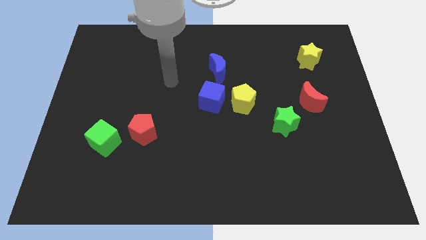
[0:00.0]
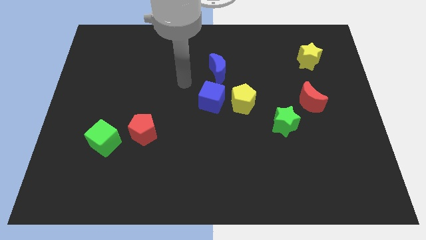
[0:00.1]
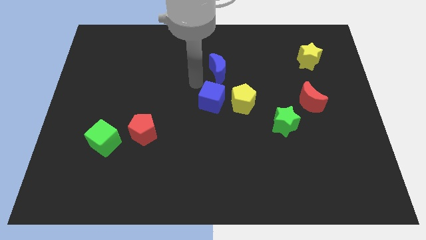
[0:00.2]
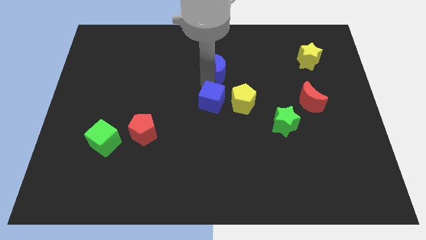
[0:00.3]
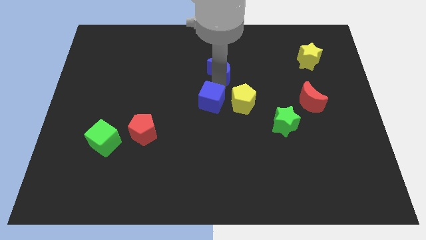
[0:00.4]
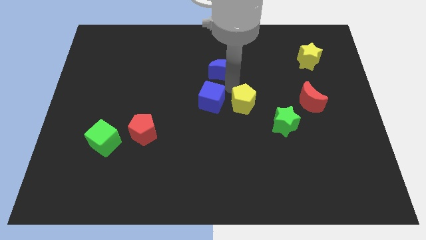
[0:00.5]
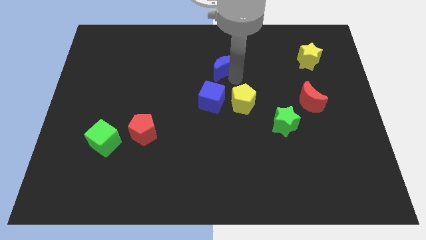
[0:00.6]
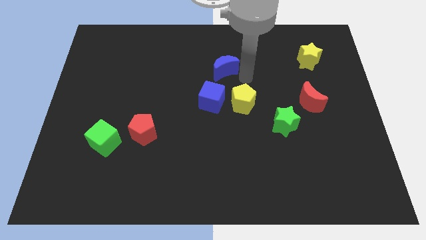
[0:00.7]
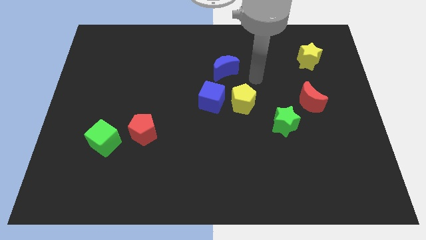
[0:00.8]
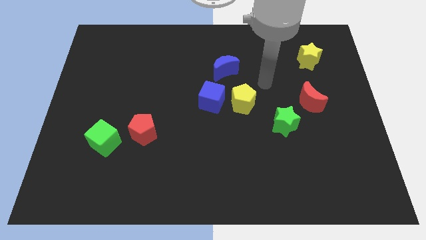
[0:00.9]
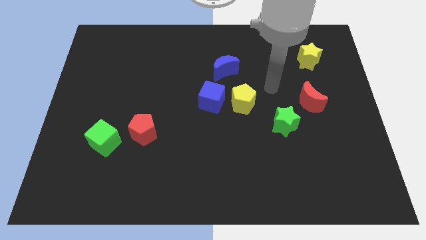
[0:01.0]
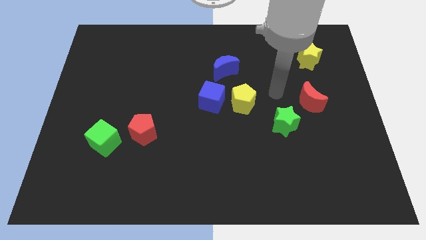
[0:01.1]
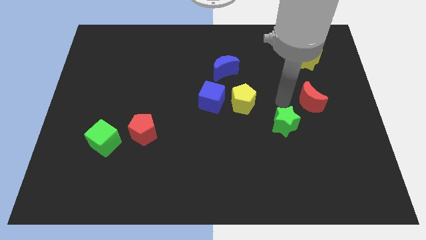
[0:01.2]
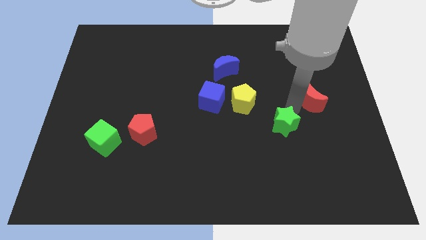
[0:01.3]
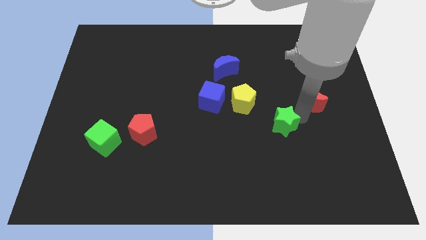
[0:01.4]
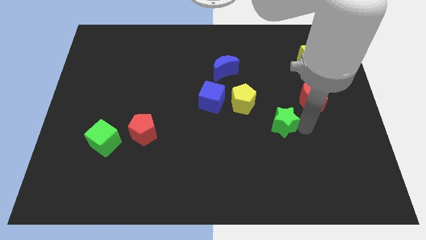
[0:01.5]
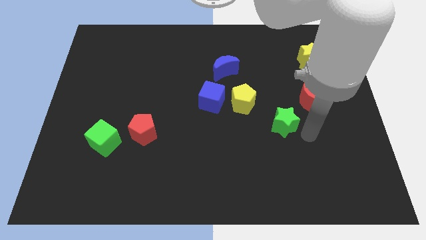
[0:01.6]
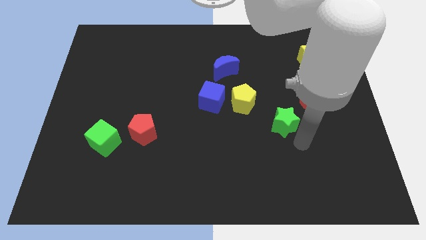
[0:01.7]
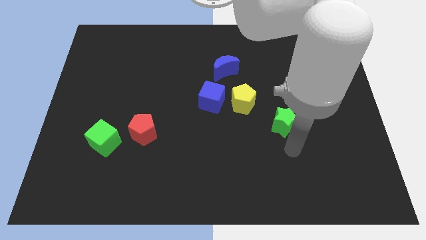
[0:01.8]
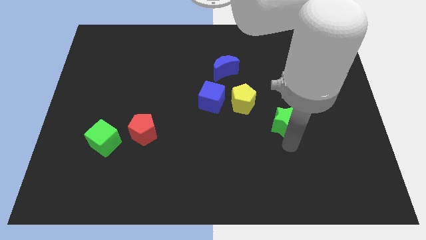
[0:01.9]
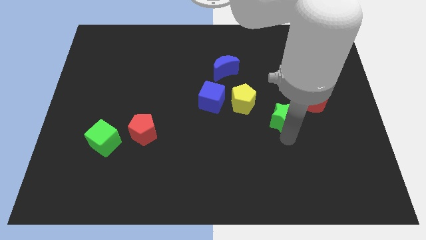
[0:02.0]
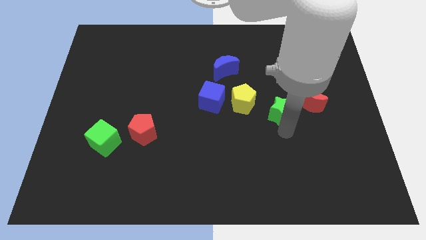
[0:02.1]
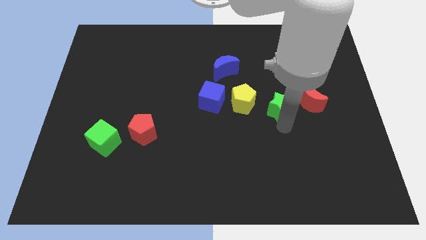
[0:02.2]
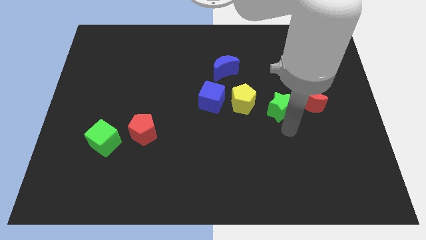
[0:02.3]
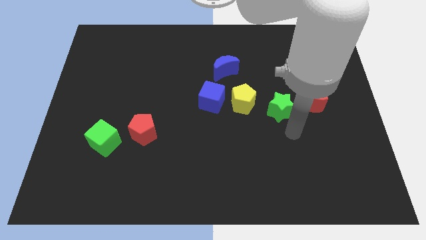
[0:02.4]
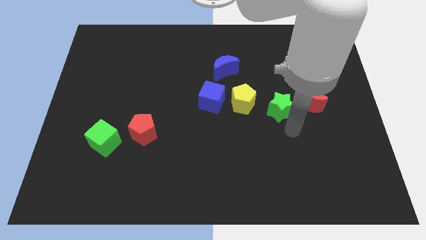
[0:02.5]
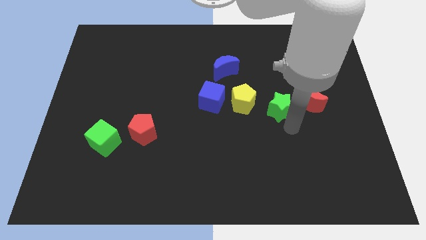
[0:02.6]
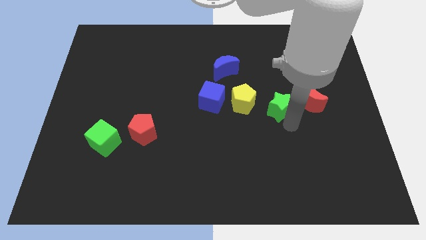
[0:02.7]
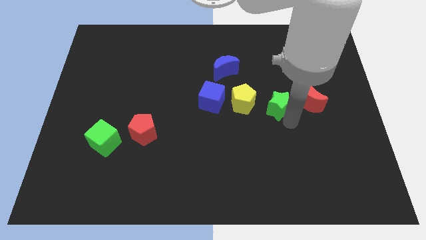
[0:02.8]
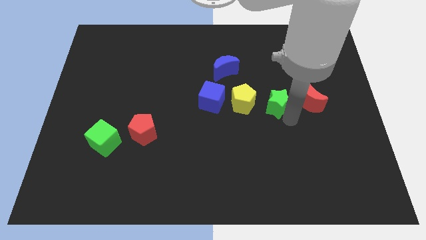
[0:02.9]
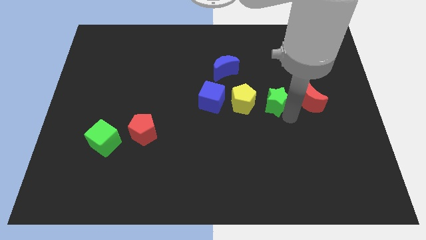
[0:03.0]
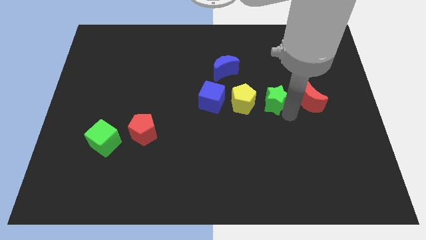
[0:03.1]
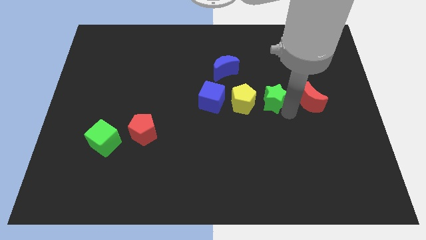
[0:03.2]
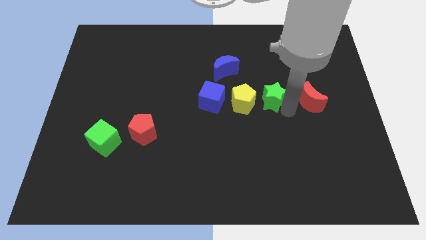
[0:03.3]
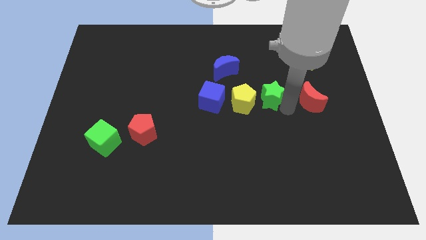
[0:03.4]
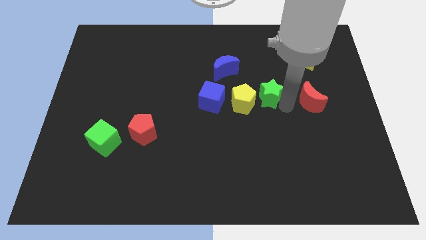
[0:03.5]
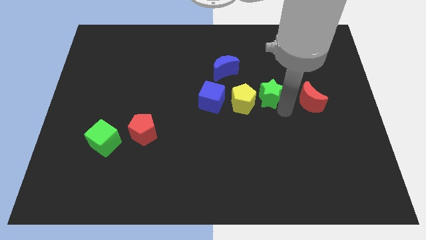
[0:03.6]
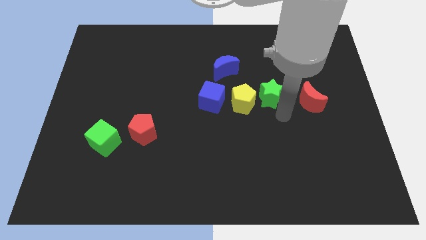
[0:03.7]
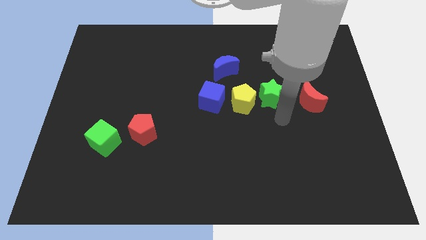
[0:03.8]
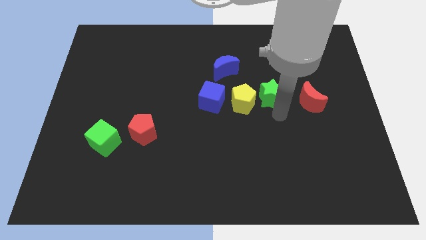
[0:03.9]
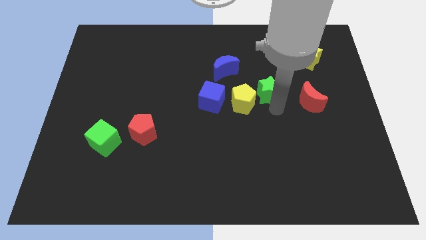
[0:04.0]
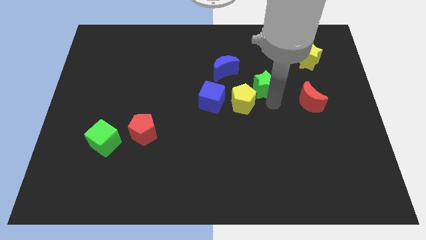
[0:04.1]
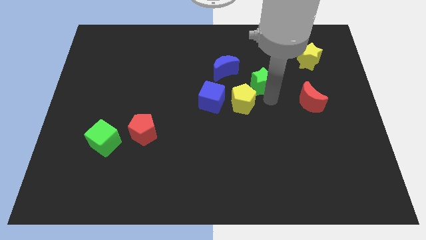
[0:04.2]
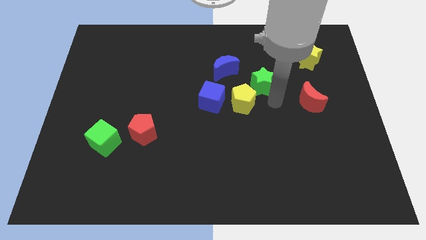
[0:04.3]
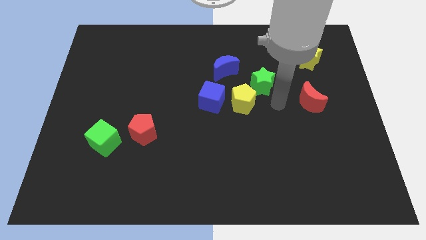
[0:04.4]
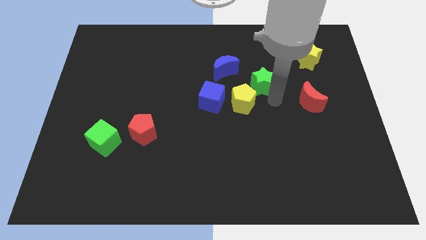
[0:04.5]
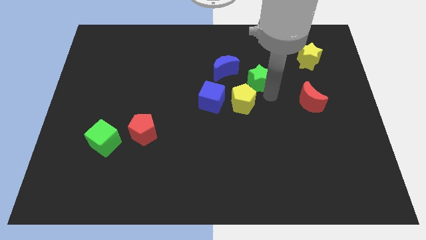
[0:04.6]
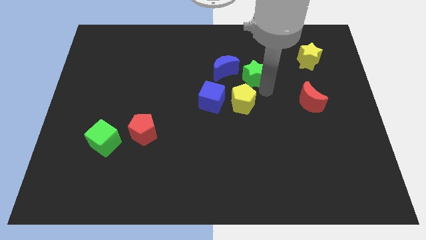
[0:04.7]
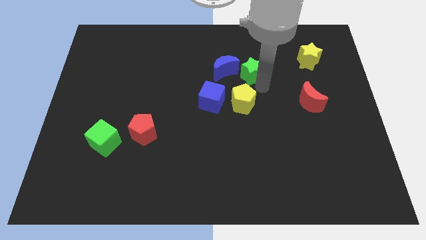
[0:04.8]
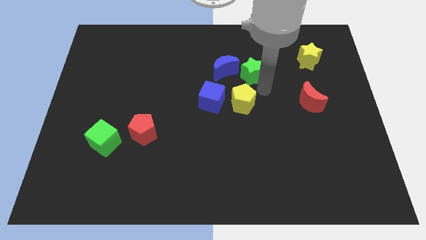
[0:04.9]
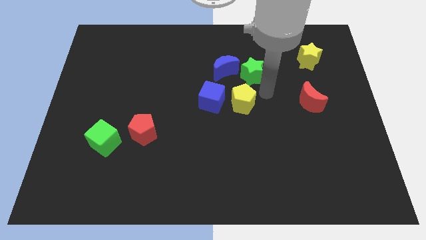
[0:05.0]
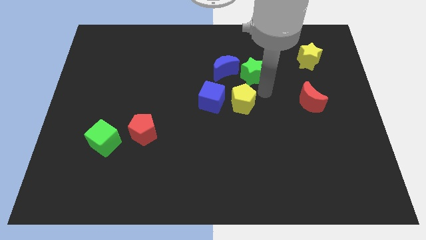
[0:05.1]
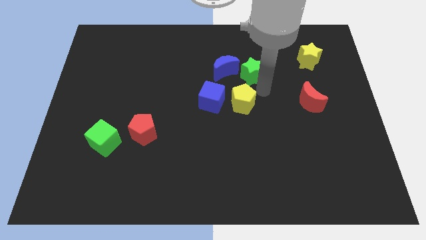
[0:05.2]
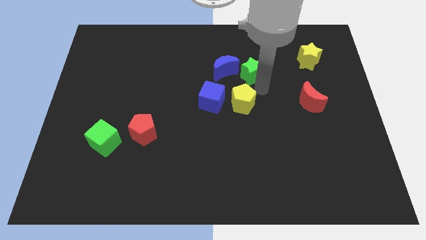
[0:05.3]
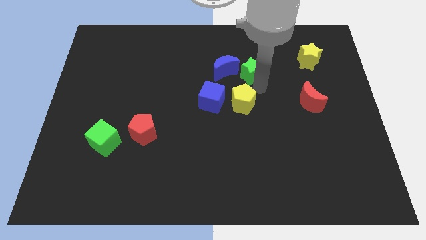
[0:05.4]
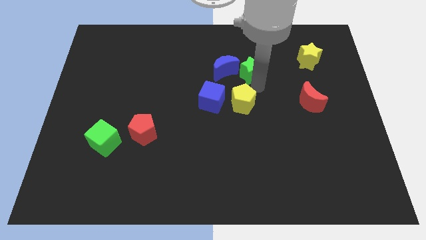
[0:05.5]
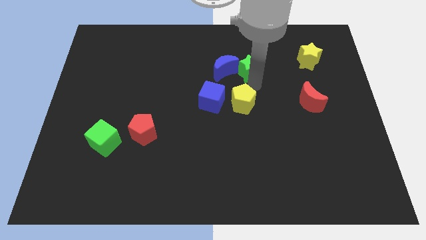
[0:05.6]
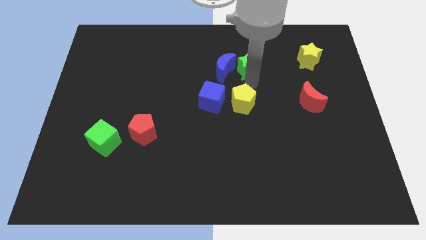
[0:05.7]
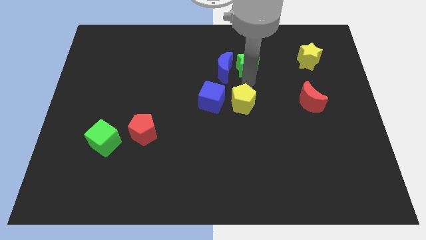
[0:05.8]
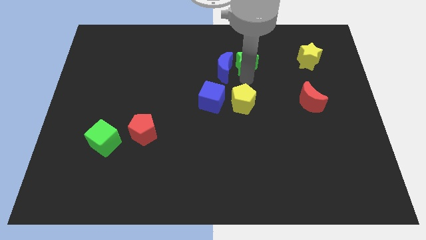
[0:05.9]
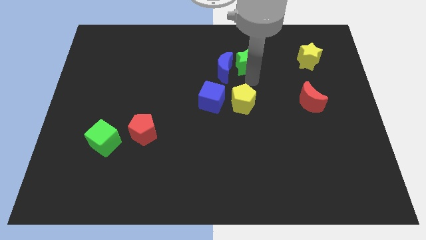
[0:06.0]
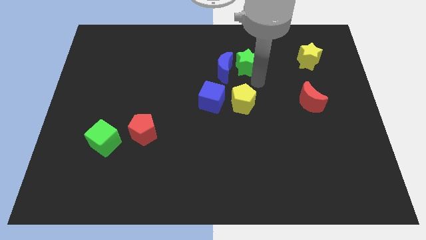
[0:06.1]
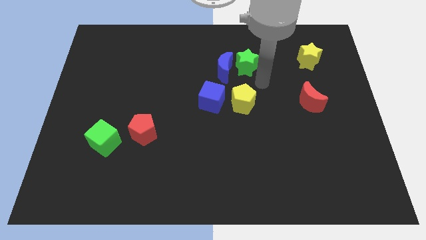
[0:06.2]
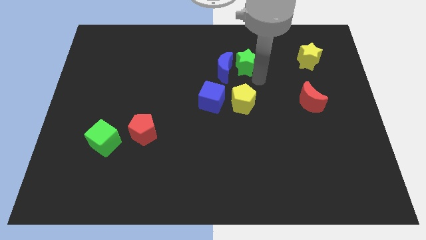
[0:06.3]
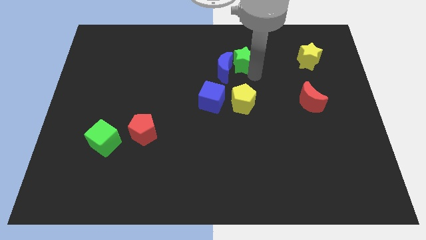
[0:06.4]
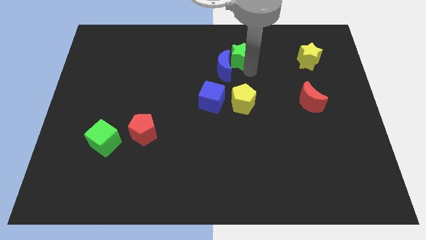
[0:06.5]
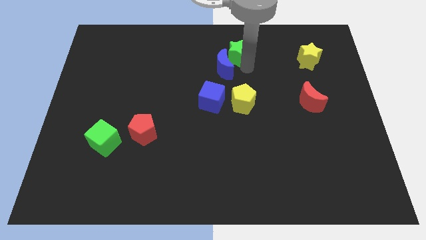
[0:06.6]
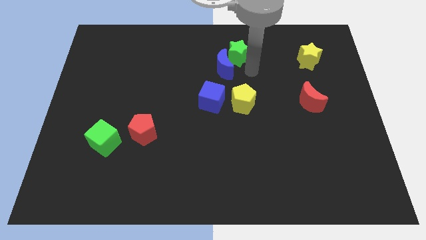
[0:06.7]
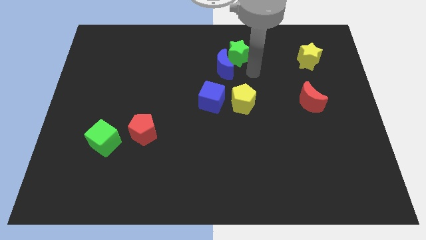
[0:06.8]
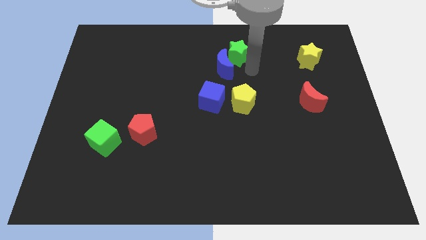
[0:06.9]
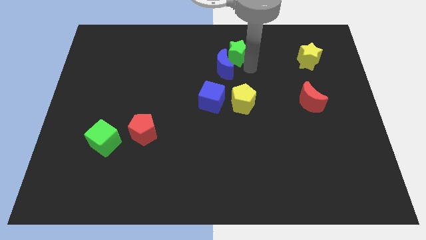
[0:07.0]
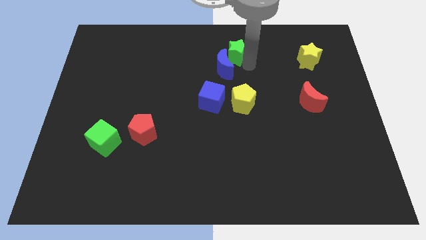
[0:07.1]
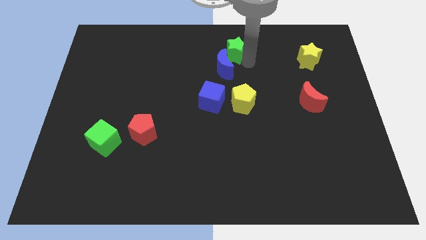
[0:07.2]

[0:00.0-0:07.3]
put the green star to the towards your base
